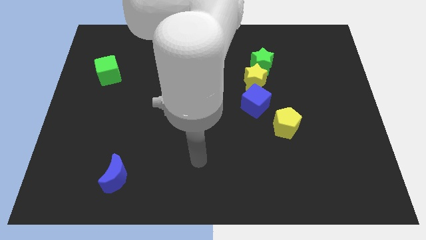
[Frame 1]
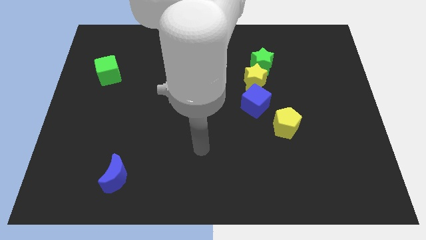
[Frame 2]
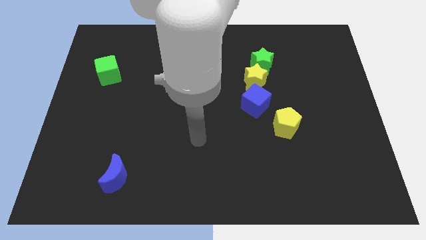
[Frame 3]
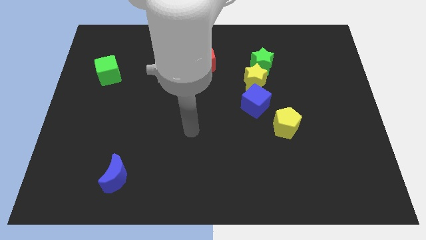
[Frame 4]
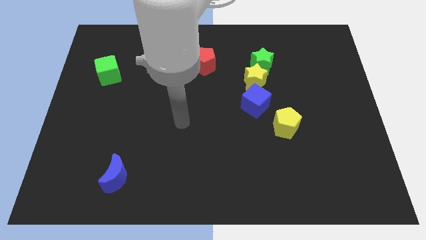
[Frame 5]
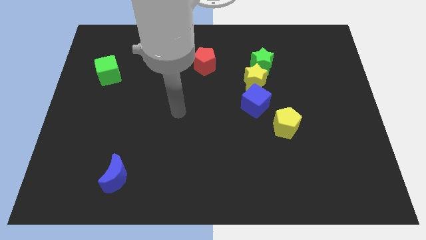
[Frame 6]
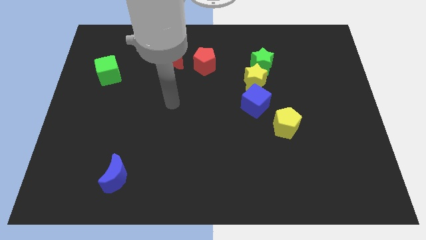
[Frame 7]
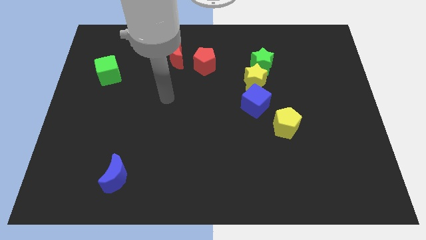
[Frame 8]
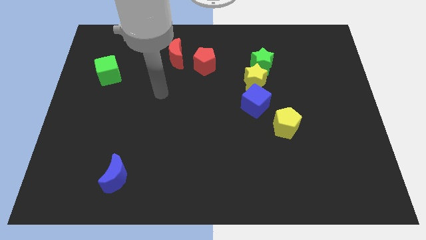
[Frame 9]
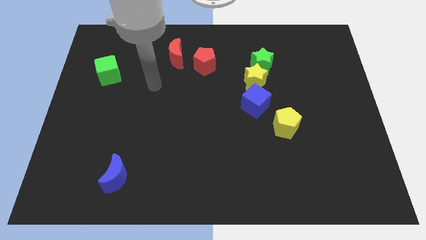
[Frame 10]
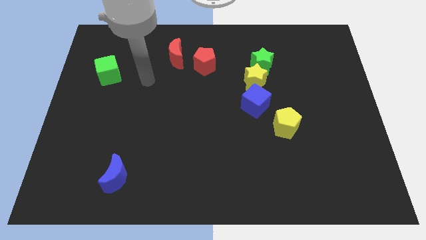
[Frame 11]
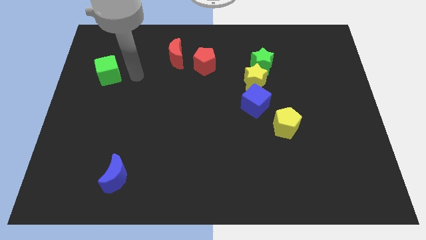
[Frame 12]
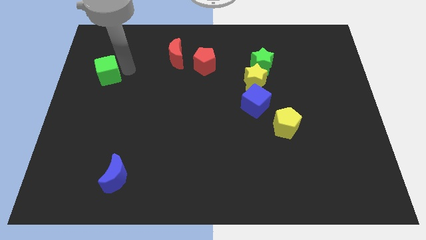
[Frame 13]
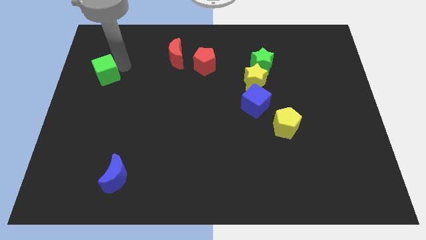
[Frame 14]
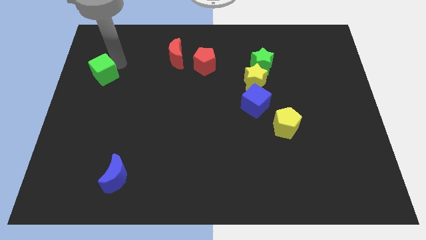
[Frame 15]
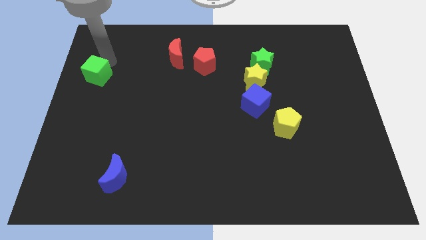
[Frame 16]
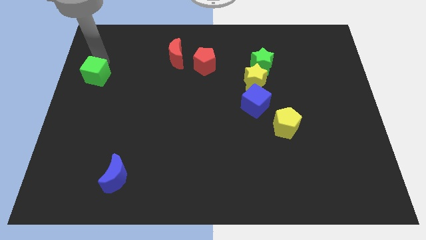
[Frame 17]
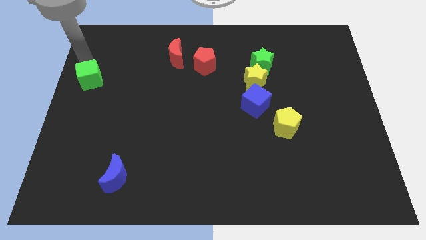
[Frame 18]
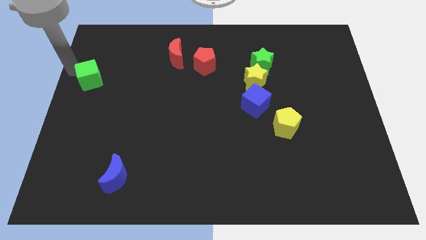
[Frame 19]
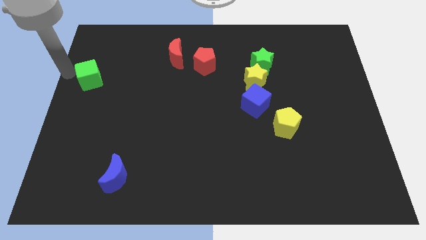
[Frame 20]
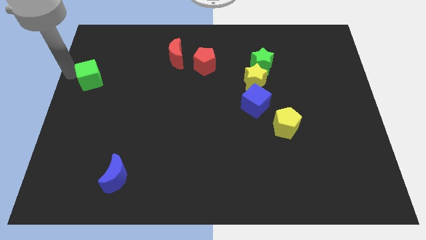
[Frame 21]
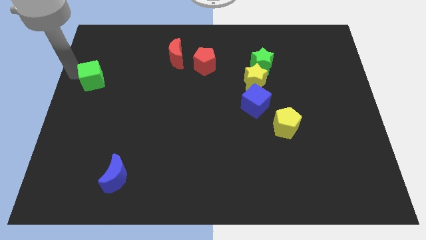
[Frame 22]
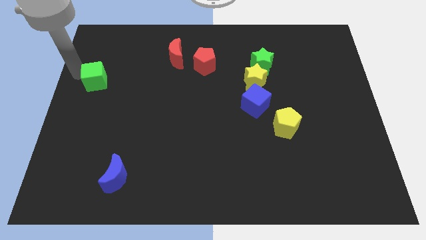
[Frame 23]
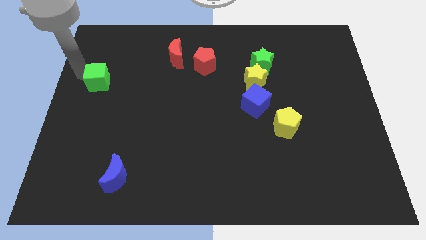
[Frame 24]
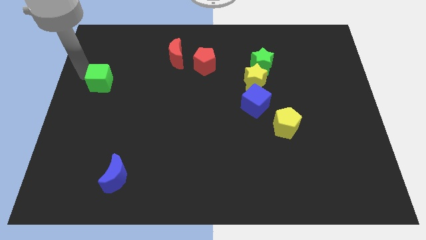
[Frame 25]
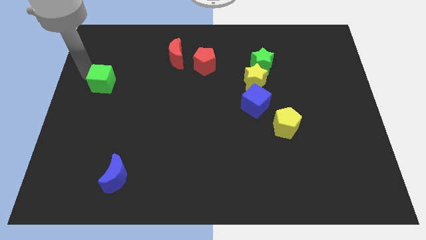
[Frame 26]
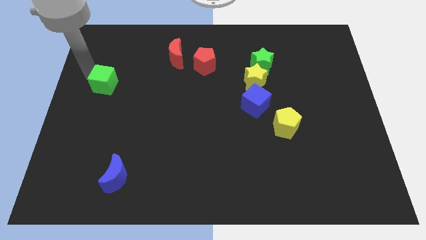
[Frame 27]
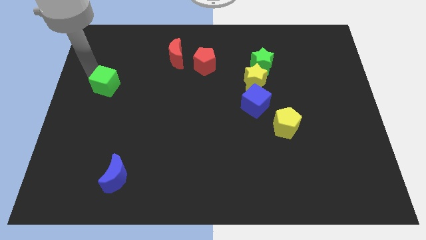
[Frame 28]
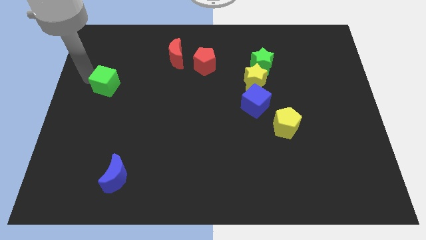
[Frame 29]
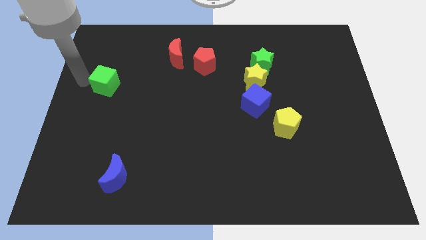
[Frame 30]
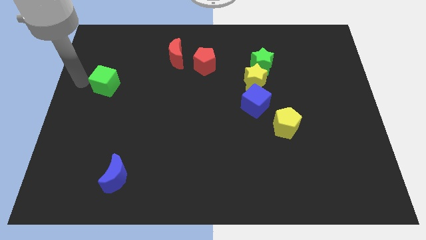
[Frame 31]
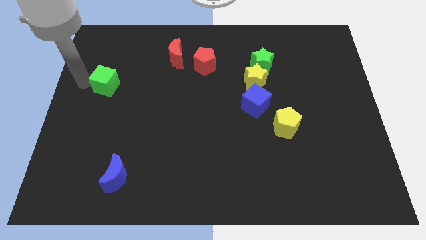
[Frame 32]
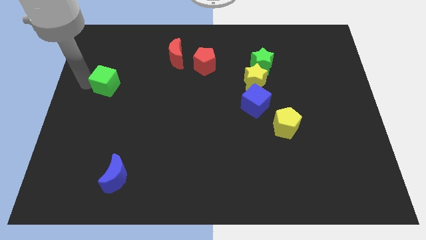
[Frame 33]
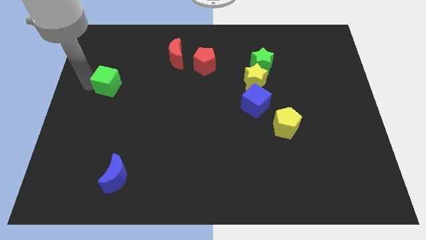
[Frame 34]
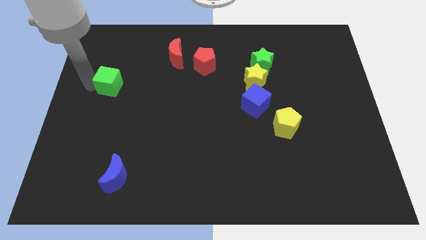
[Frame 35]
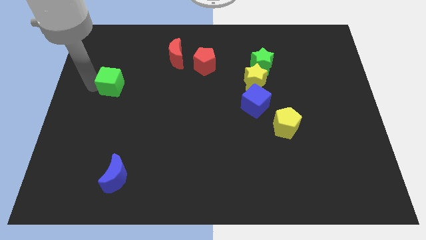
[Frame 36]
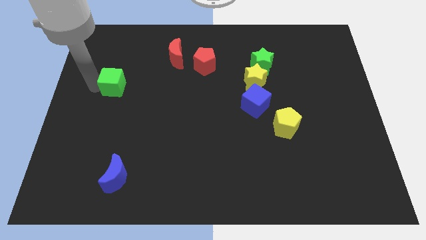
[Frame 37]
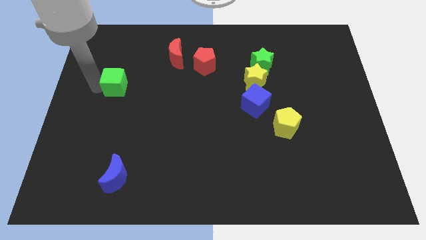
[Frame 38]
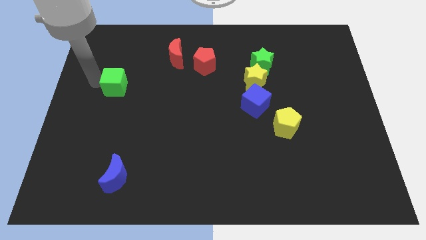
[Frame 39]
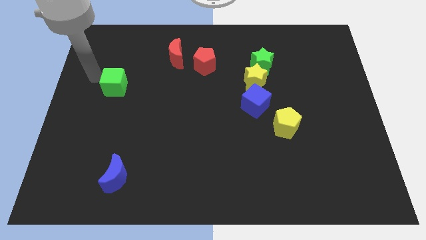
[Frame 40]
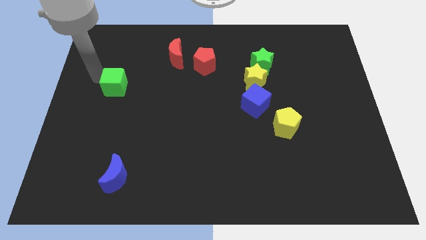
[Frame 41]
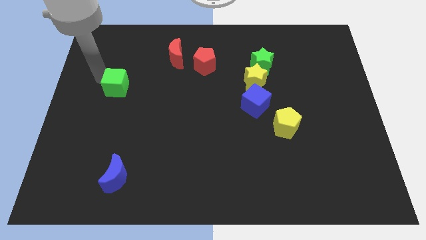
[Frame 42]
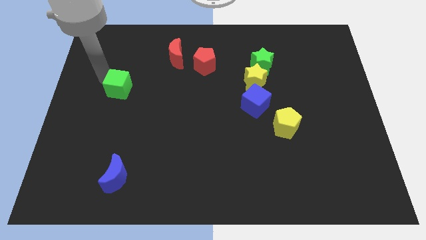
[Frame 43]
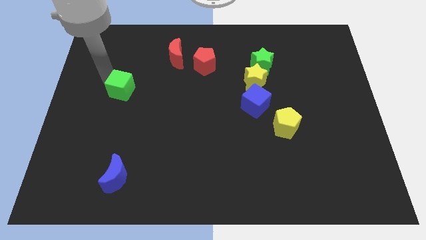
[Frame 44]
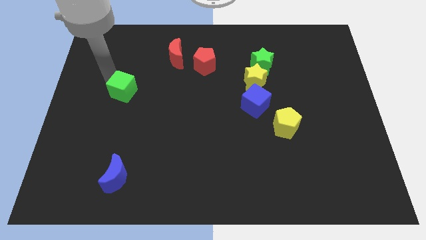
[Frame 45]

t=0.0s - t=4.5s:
push the green cube diagonally downwards and right a little bit

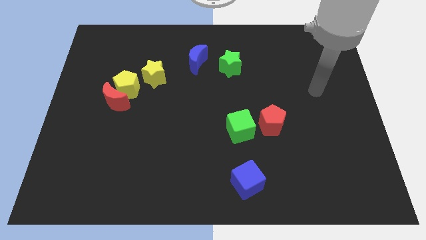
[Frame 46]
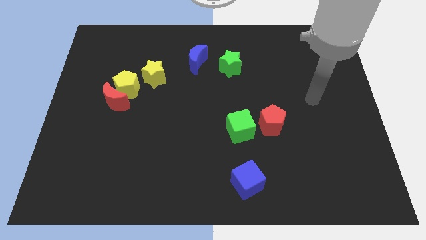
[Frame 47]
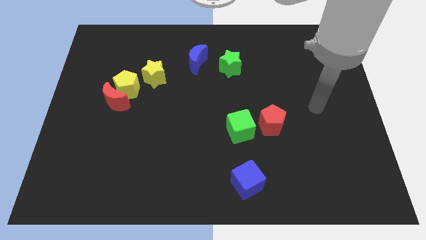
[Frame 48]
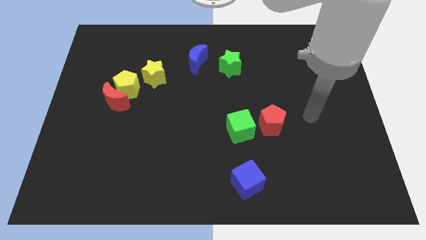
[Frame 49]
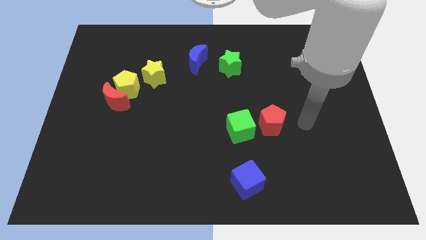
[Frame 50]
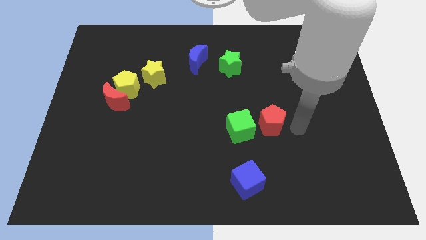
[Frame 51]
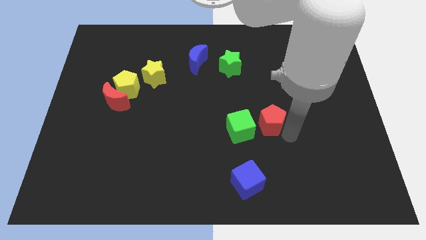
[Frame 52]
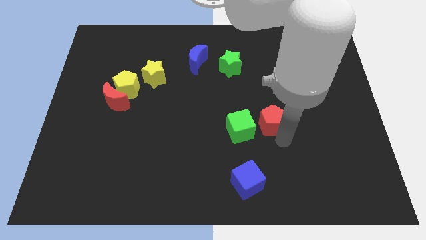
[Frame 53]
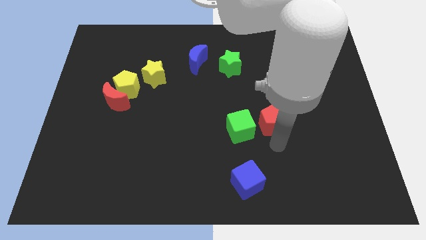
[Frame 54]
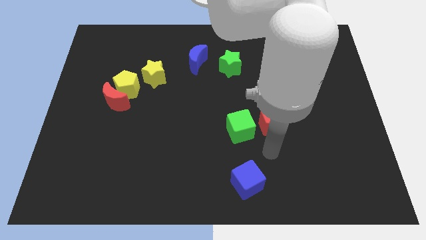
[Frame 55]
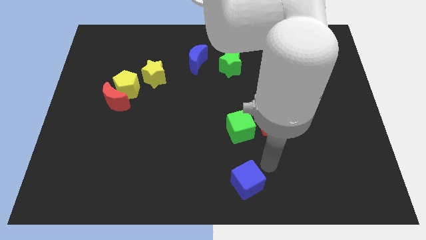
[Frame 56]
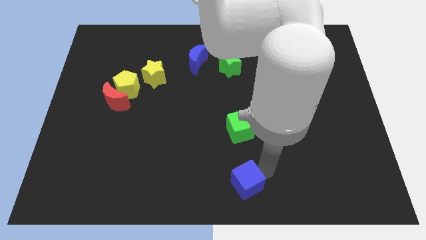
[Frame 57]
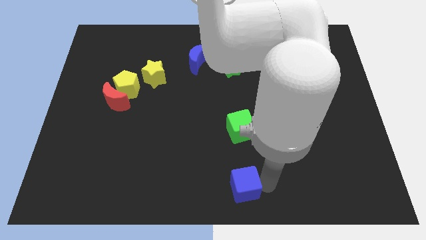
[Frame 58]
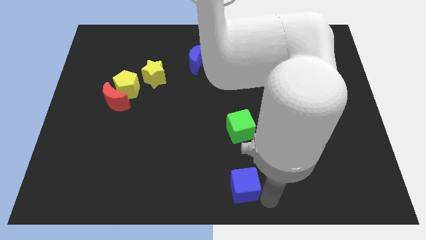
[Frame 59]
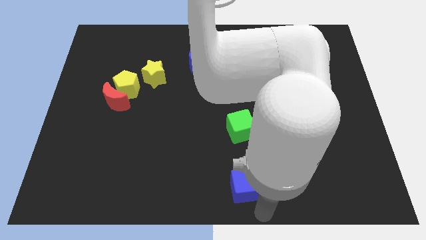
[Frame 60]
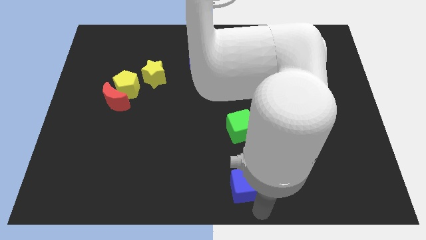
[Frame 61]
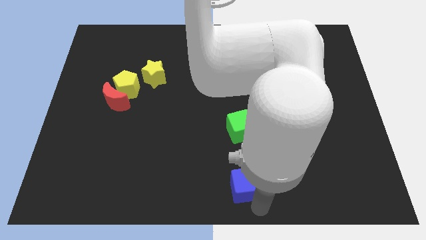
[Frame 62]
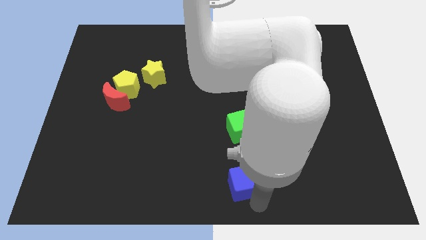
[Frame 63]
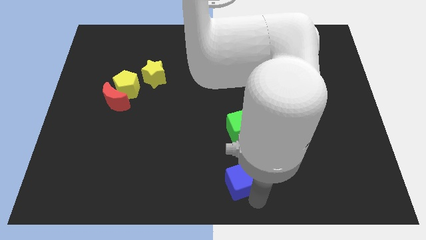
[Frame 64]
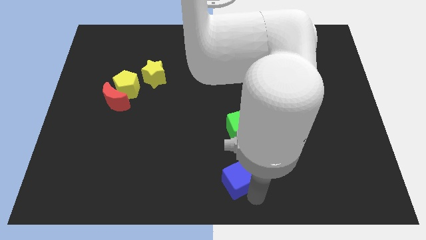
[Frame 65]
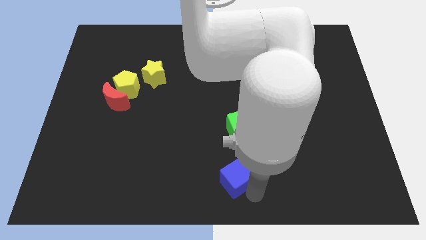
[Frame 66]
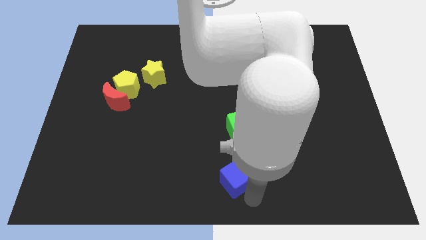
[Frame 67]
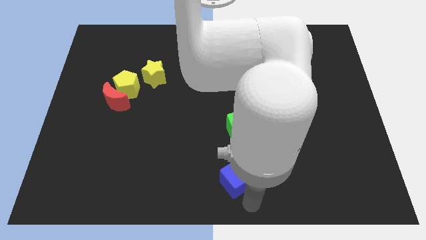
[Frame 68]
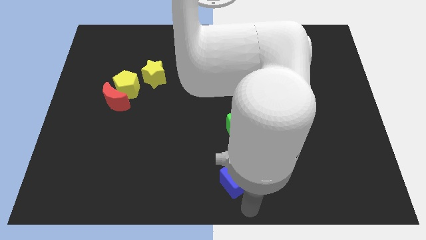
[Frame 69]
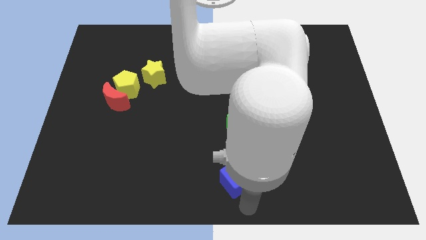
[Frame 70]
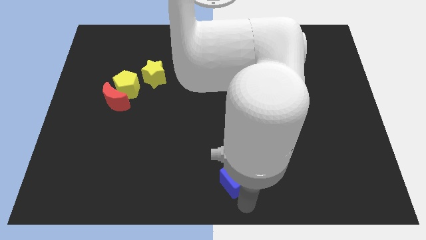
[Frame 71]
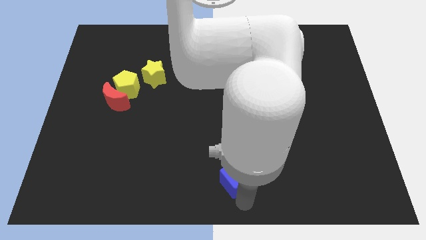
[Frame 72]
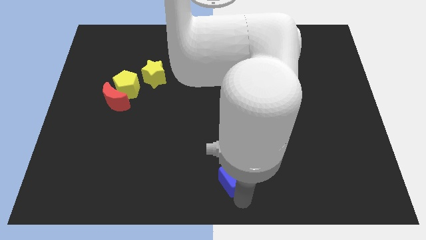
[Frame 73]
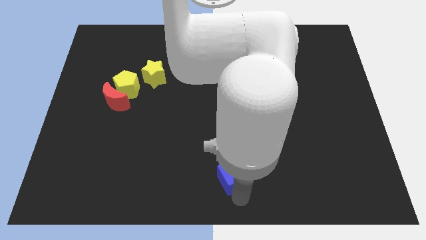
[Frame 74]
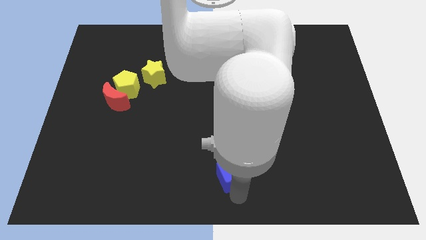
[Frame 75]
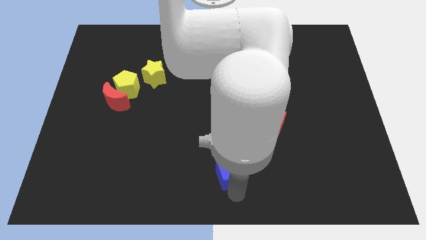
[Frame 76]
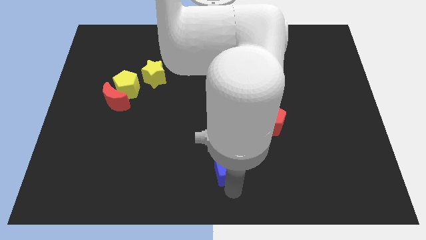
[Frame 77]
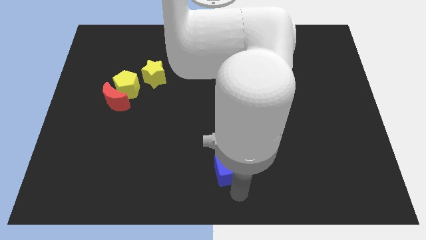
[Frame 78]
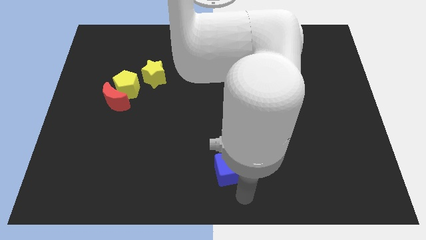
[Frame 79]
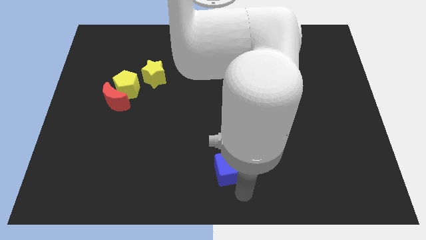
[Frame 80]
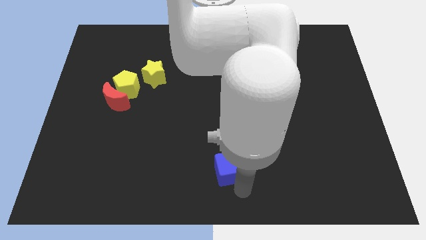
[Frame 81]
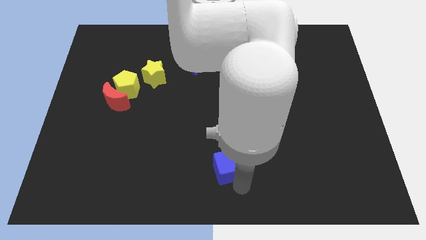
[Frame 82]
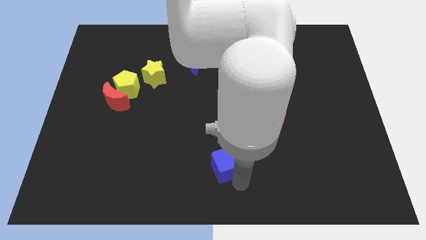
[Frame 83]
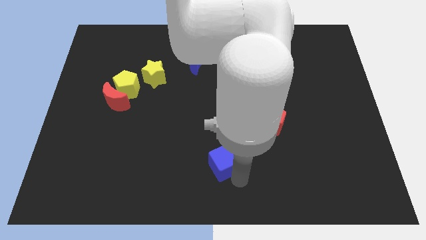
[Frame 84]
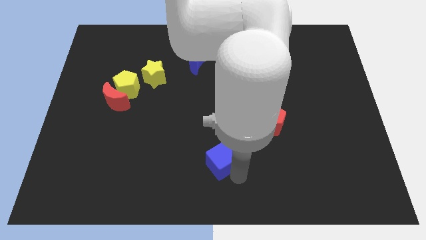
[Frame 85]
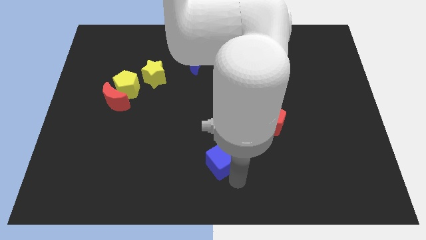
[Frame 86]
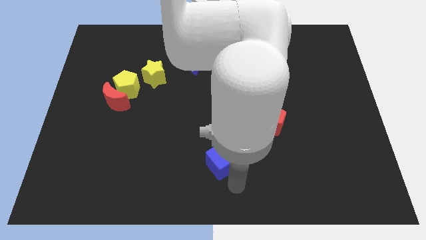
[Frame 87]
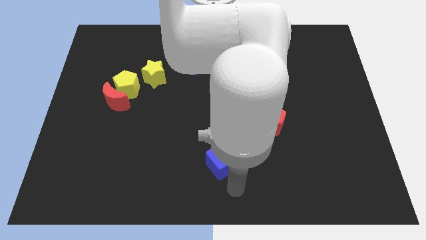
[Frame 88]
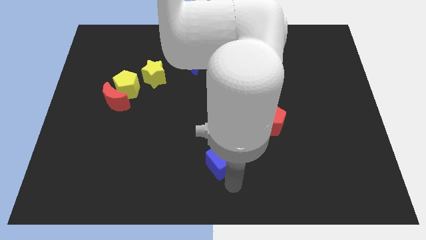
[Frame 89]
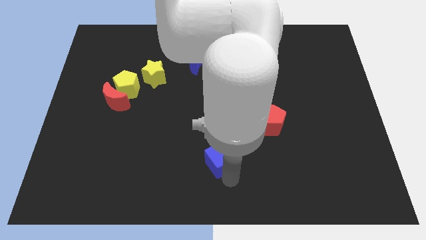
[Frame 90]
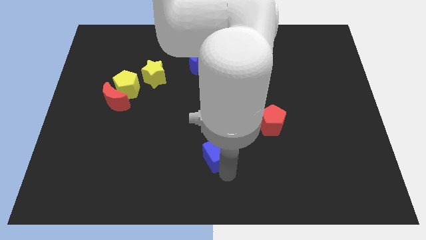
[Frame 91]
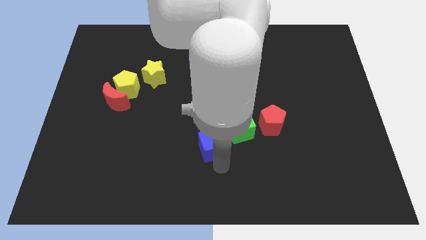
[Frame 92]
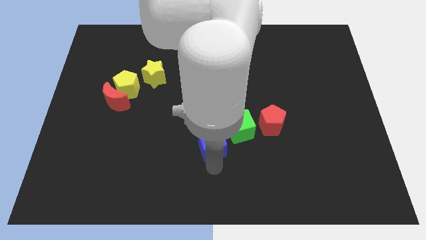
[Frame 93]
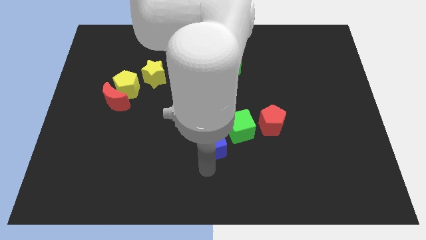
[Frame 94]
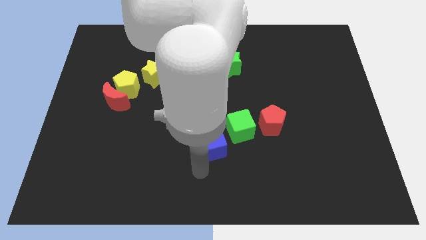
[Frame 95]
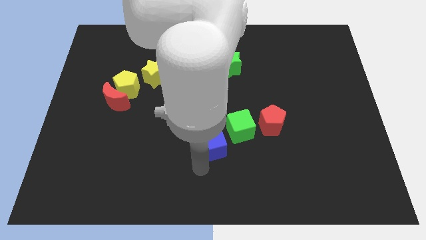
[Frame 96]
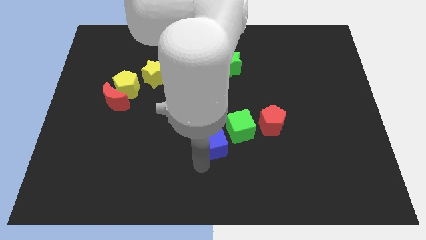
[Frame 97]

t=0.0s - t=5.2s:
move the blue cube a bit up
